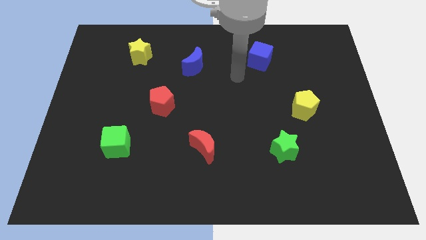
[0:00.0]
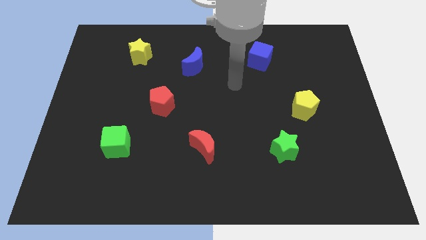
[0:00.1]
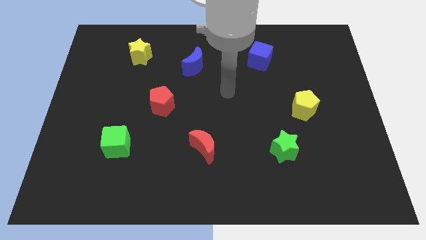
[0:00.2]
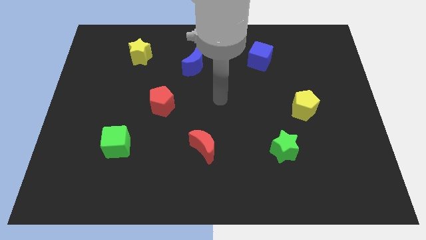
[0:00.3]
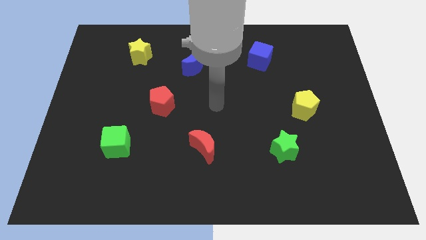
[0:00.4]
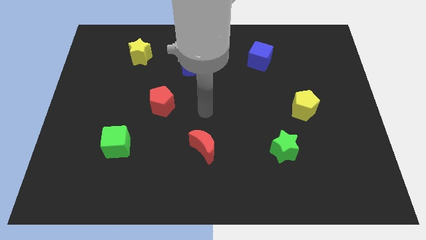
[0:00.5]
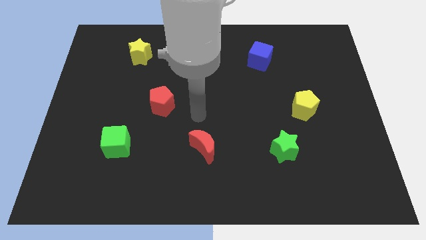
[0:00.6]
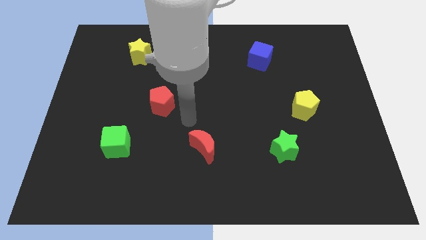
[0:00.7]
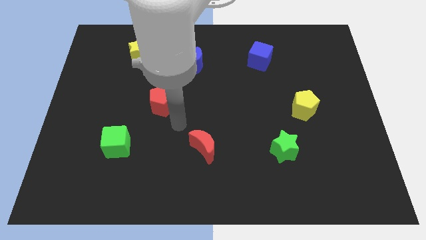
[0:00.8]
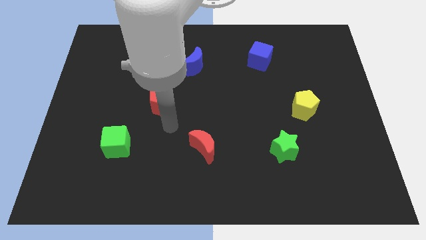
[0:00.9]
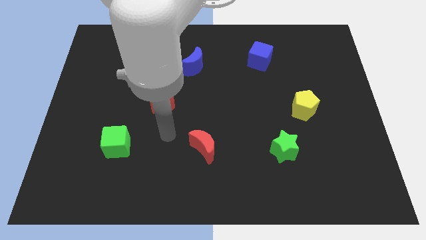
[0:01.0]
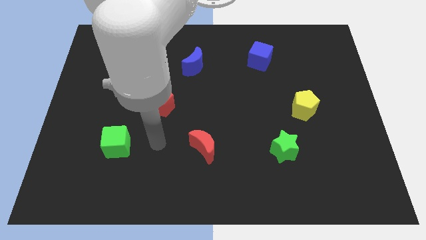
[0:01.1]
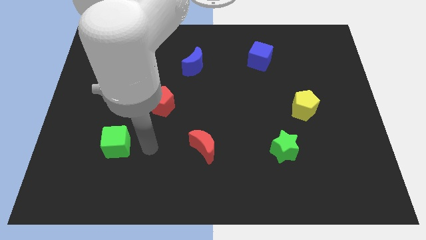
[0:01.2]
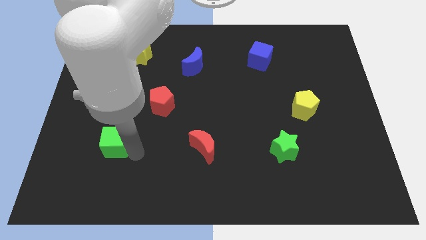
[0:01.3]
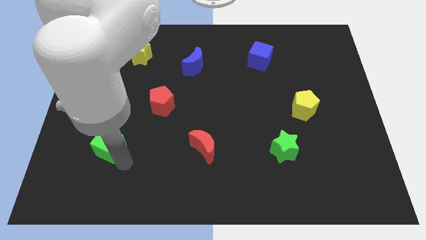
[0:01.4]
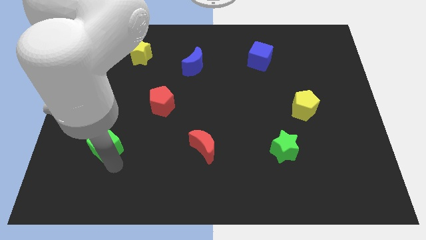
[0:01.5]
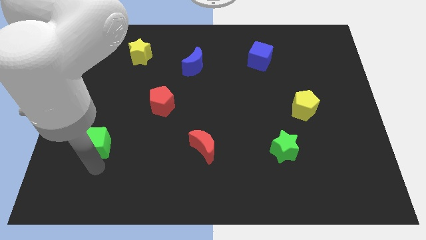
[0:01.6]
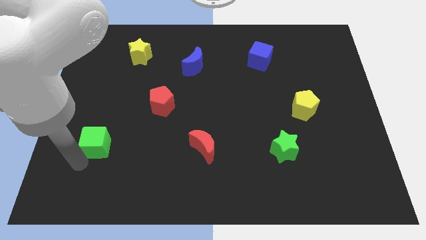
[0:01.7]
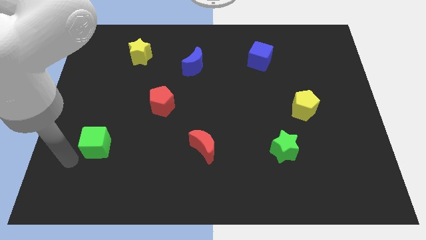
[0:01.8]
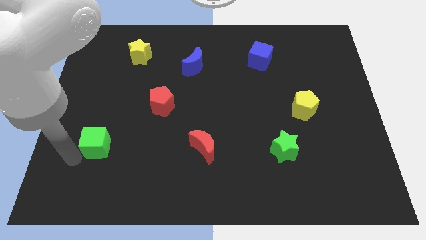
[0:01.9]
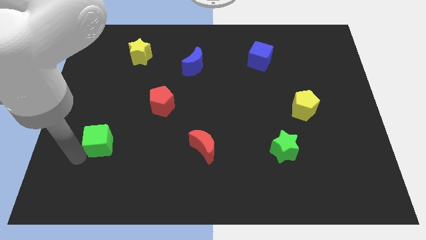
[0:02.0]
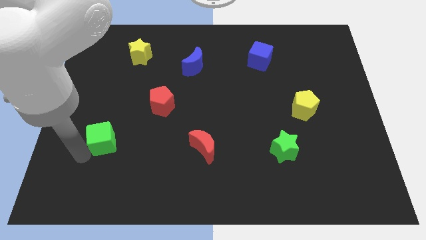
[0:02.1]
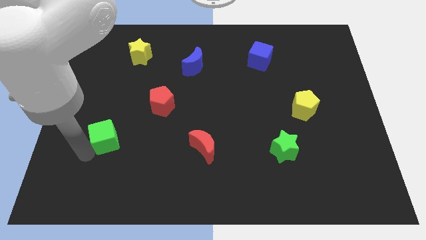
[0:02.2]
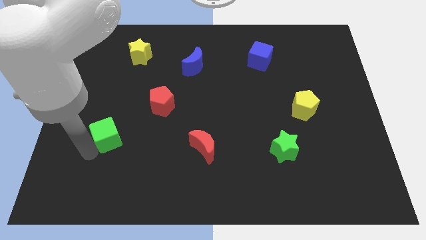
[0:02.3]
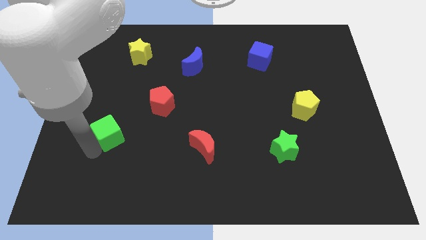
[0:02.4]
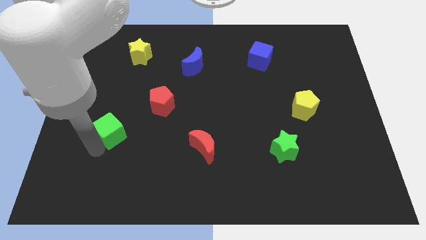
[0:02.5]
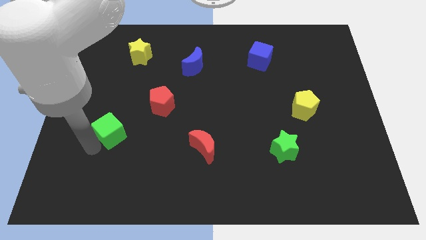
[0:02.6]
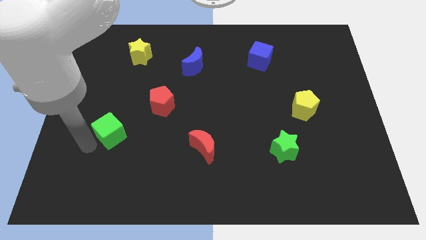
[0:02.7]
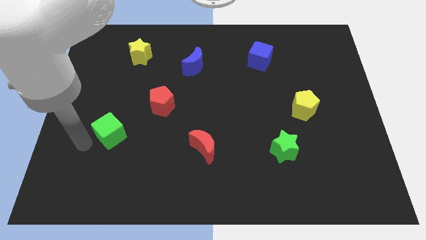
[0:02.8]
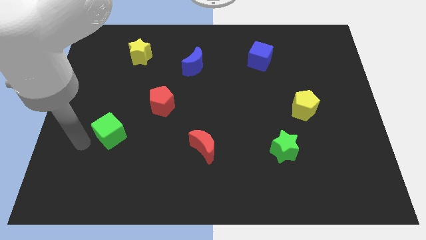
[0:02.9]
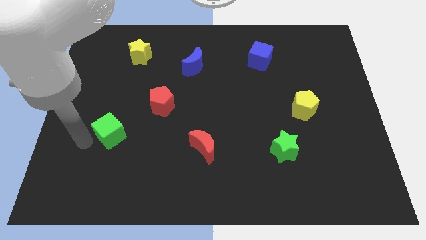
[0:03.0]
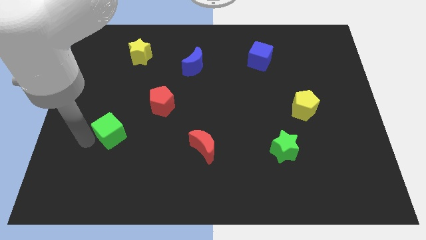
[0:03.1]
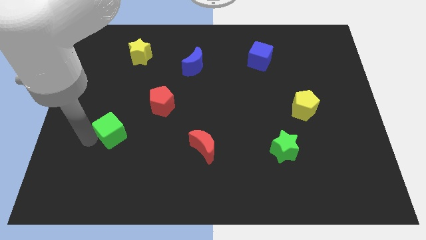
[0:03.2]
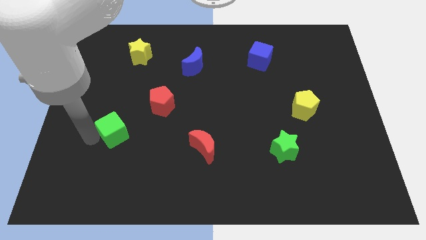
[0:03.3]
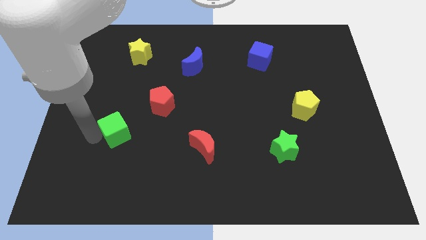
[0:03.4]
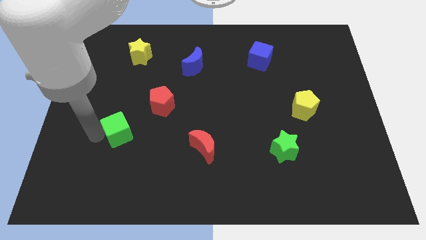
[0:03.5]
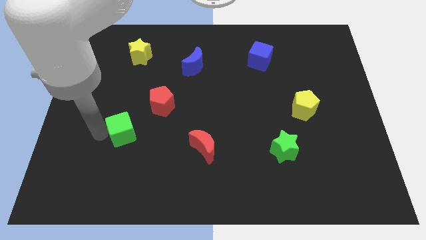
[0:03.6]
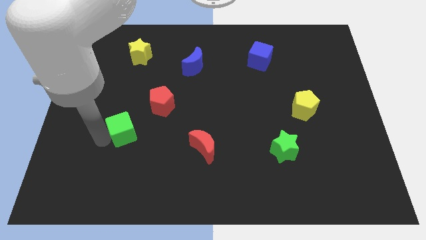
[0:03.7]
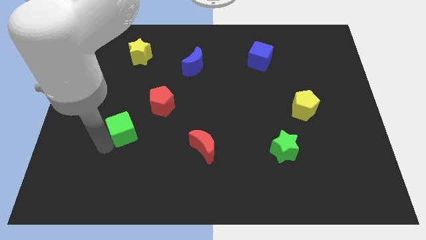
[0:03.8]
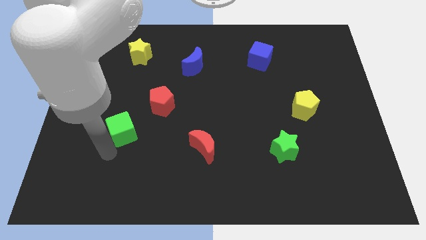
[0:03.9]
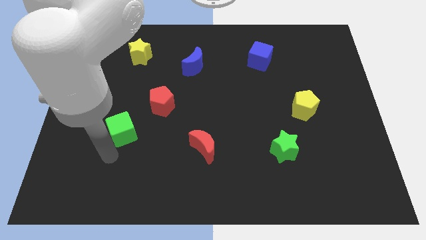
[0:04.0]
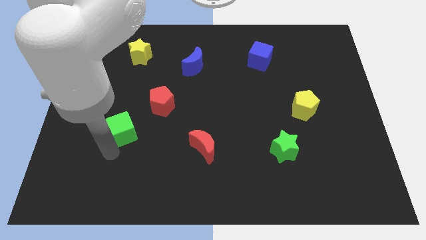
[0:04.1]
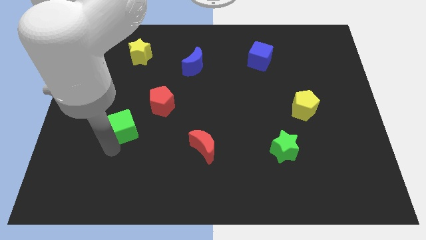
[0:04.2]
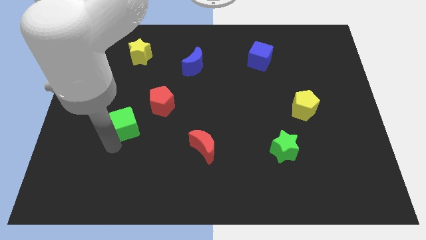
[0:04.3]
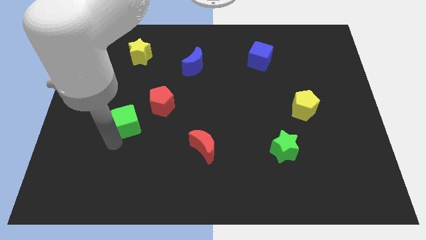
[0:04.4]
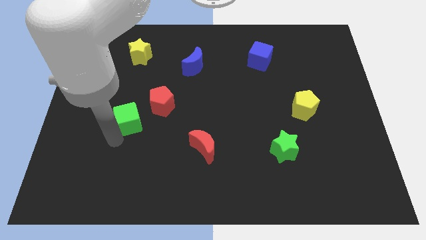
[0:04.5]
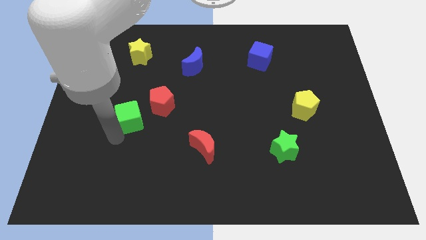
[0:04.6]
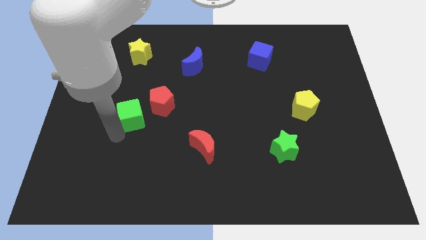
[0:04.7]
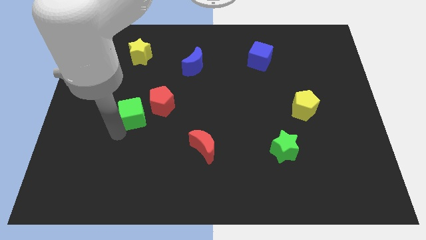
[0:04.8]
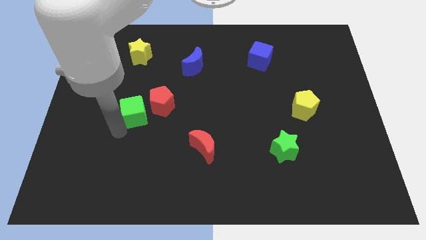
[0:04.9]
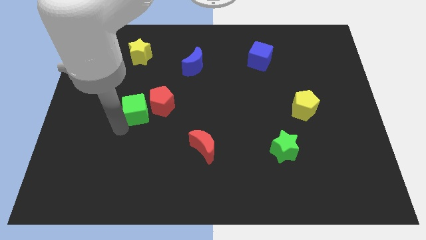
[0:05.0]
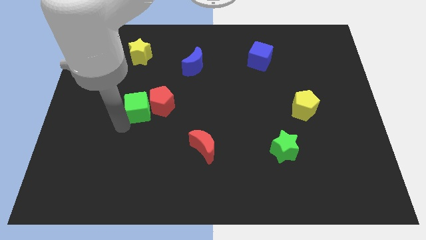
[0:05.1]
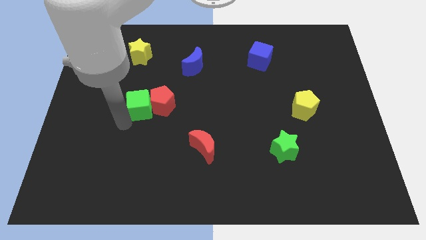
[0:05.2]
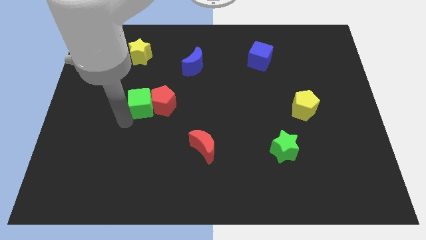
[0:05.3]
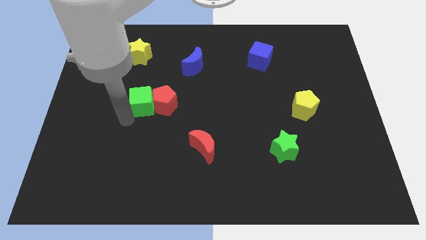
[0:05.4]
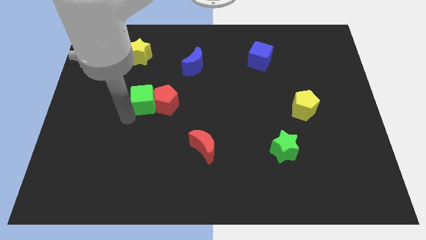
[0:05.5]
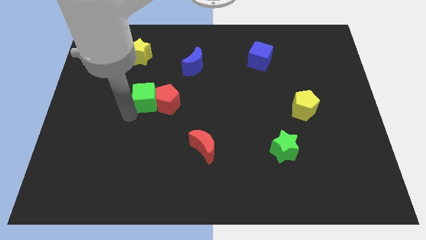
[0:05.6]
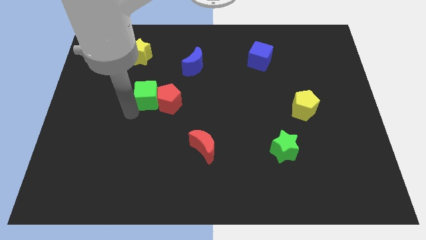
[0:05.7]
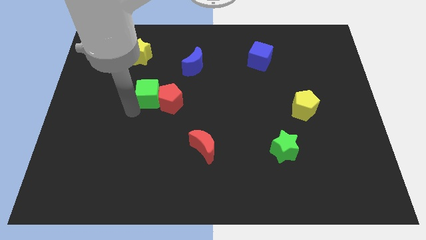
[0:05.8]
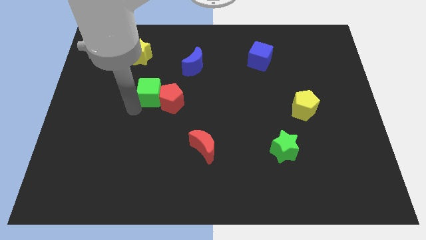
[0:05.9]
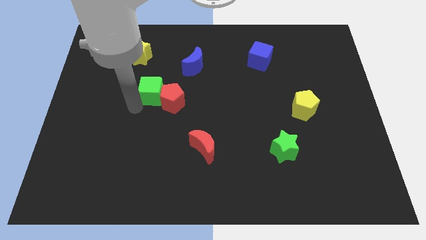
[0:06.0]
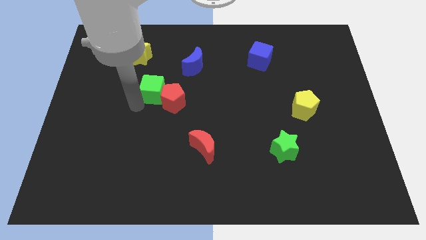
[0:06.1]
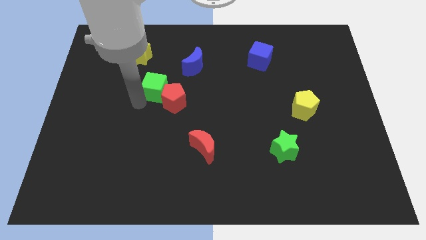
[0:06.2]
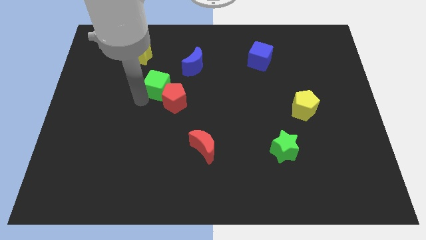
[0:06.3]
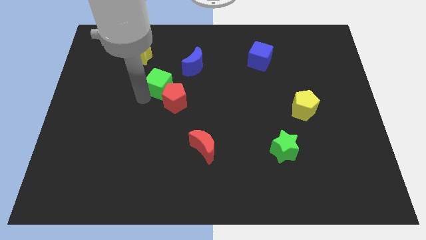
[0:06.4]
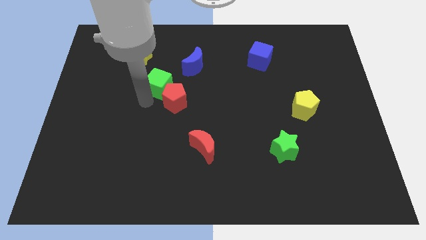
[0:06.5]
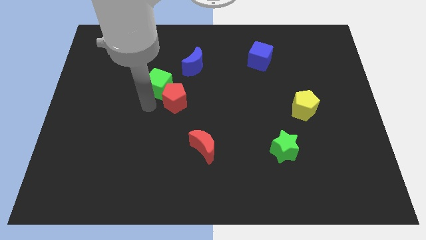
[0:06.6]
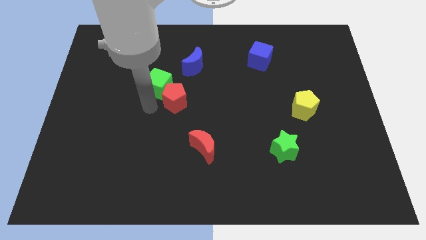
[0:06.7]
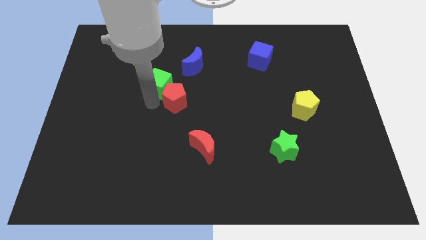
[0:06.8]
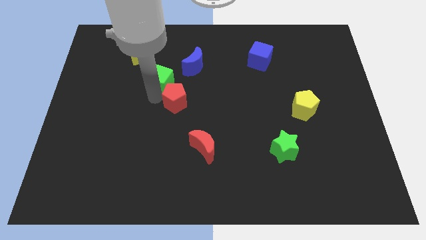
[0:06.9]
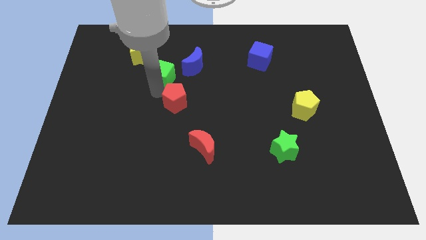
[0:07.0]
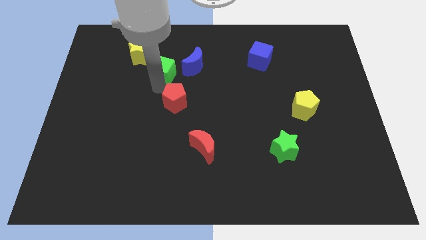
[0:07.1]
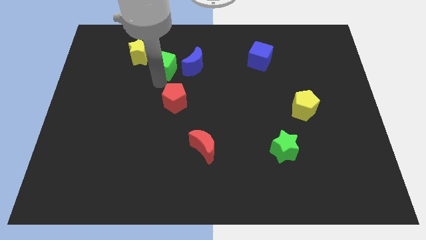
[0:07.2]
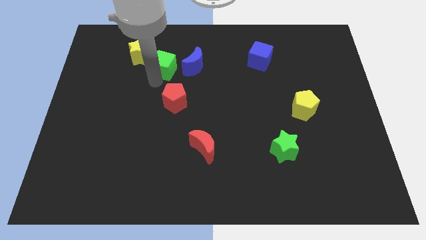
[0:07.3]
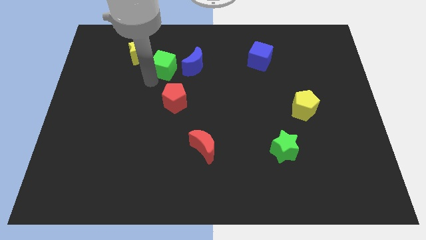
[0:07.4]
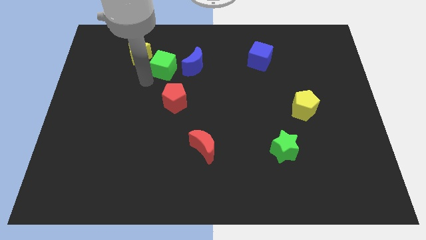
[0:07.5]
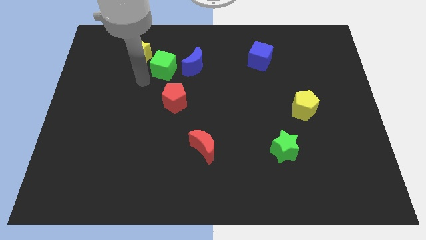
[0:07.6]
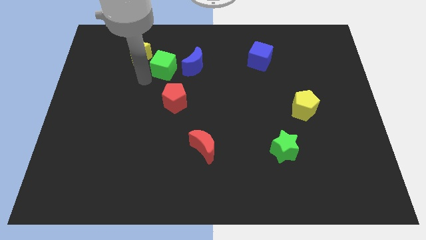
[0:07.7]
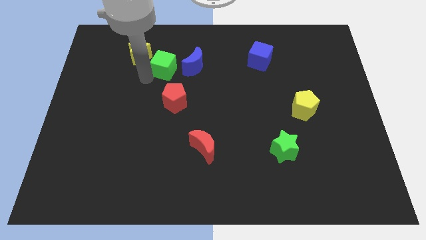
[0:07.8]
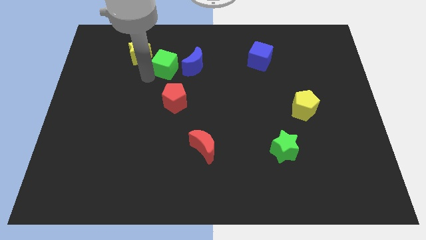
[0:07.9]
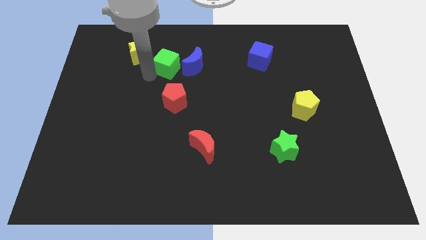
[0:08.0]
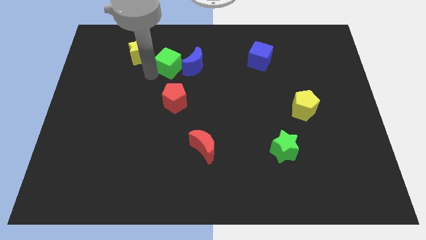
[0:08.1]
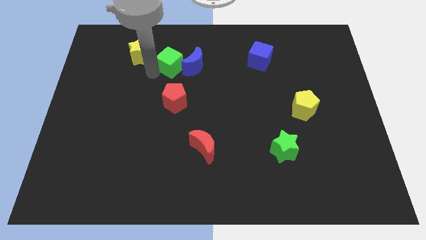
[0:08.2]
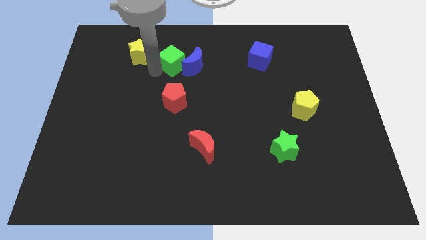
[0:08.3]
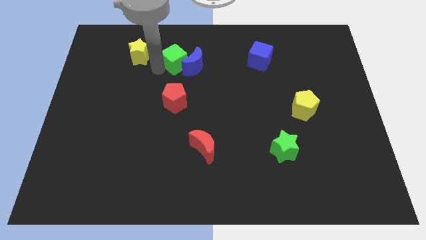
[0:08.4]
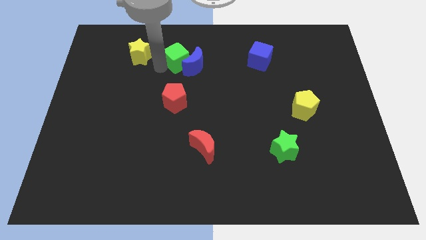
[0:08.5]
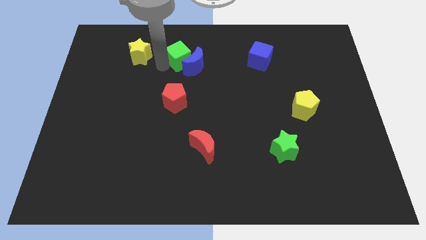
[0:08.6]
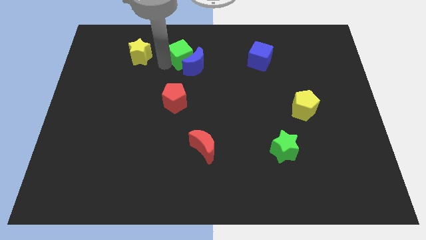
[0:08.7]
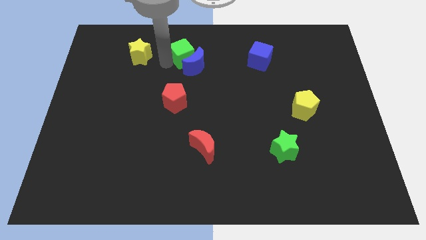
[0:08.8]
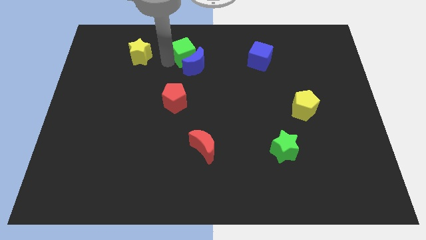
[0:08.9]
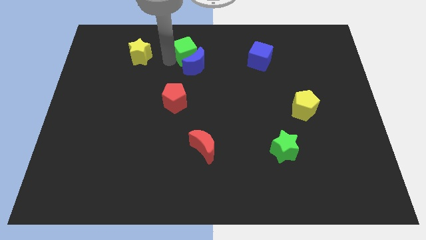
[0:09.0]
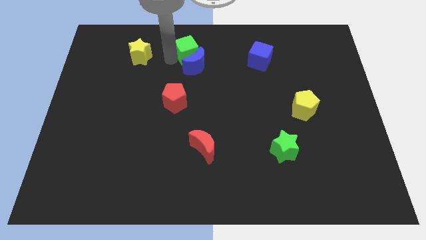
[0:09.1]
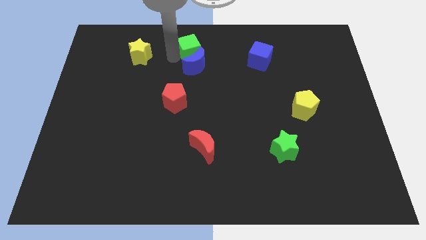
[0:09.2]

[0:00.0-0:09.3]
slide the green cube to the top side
